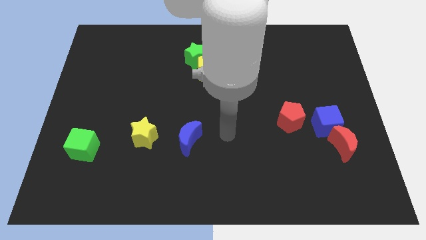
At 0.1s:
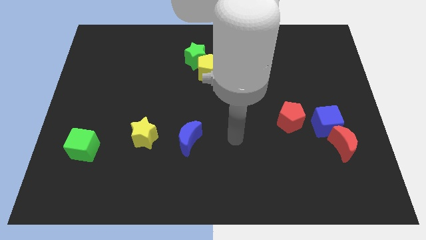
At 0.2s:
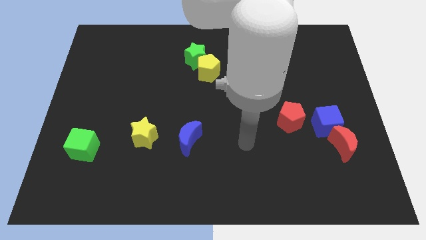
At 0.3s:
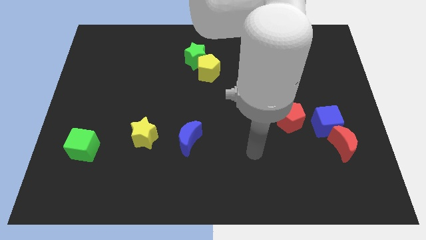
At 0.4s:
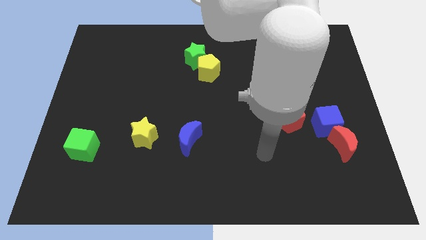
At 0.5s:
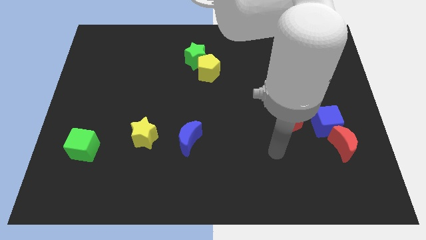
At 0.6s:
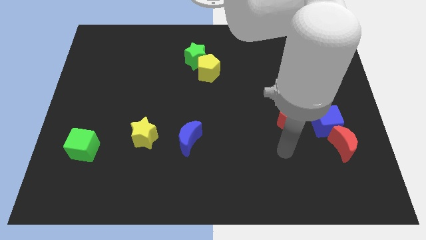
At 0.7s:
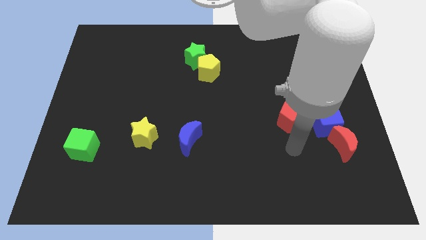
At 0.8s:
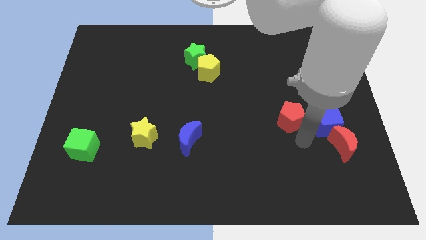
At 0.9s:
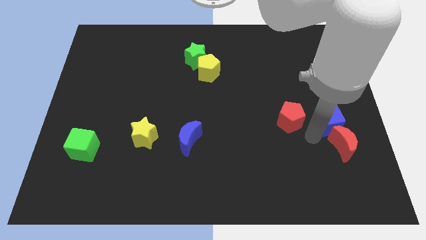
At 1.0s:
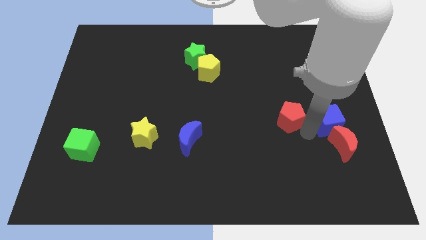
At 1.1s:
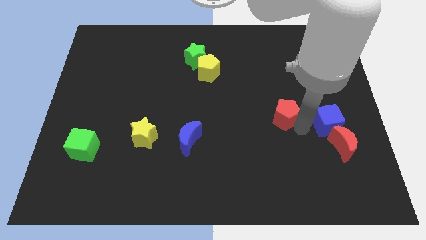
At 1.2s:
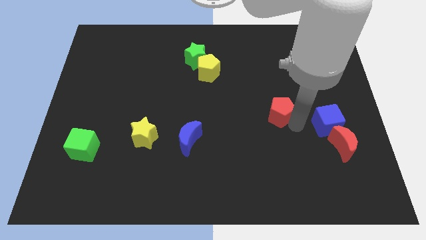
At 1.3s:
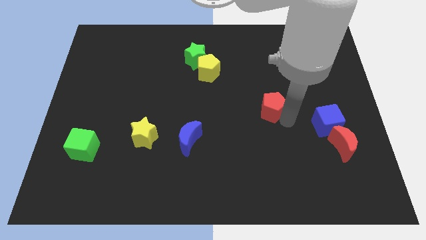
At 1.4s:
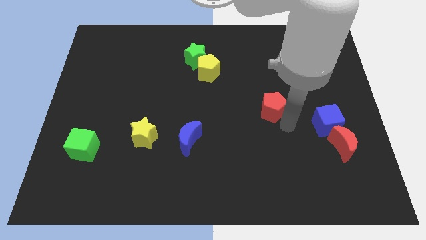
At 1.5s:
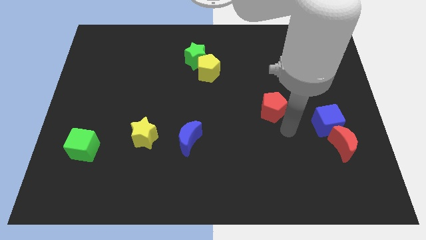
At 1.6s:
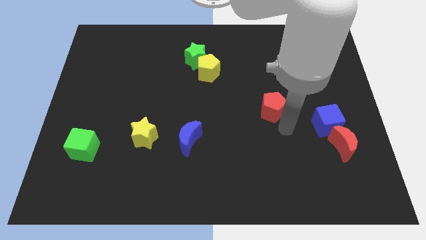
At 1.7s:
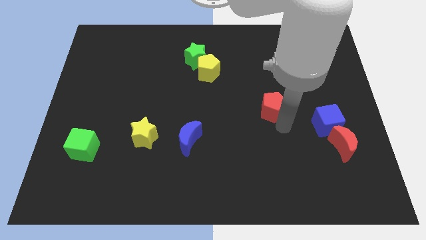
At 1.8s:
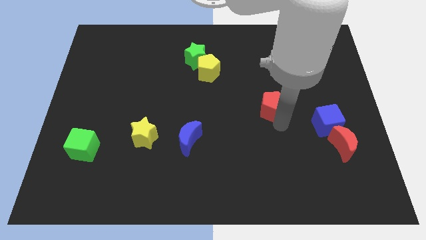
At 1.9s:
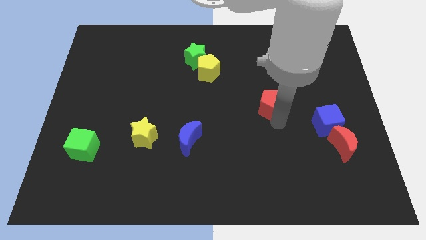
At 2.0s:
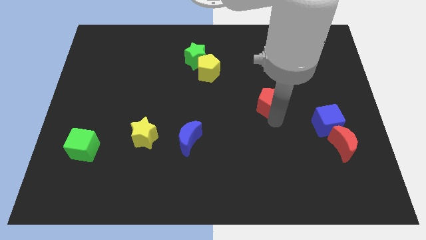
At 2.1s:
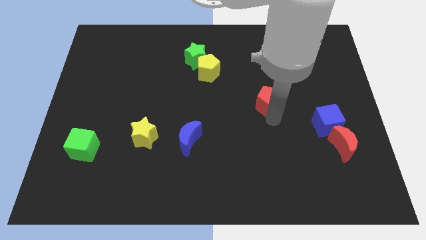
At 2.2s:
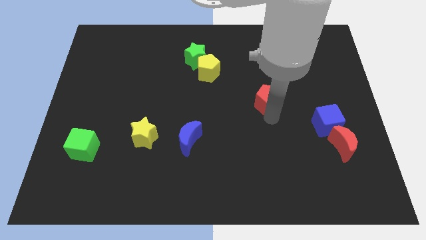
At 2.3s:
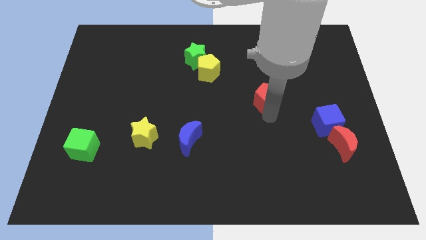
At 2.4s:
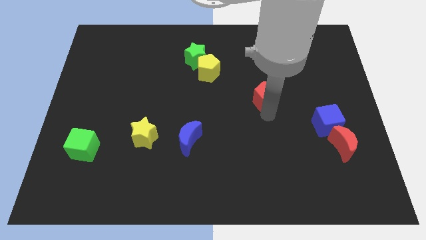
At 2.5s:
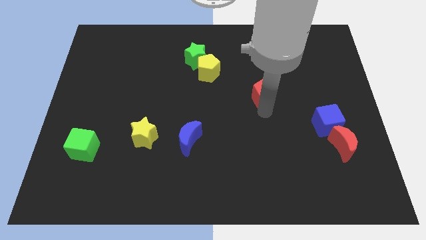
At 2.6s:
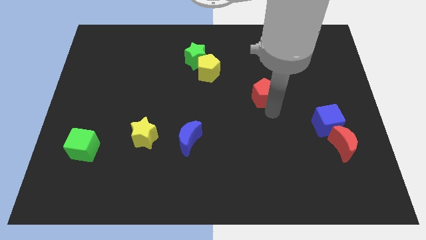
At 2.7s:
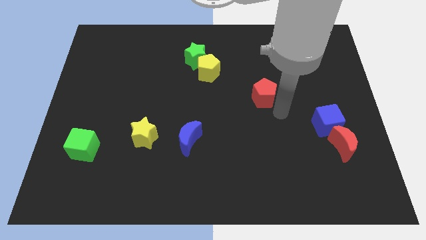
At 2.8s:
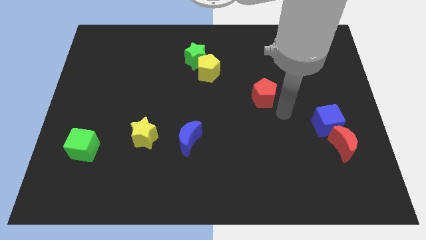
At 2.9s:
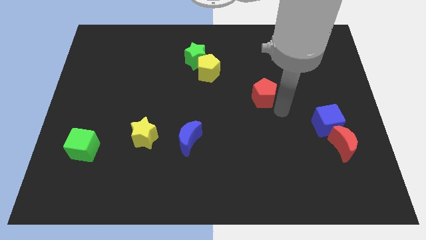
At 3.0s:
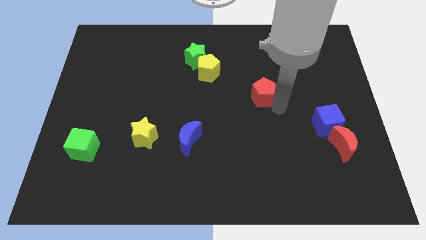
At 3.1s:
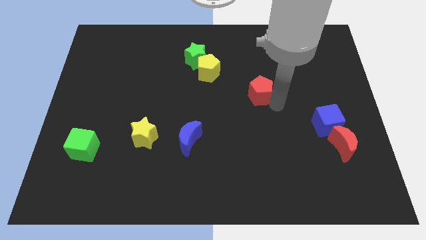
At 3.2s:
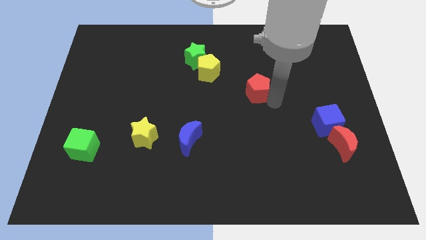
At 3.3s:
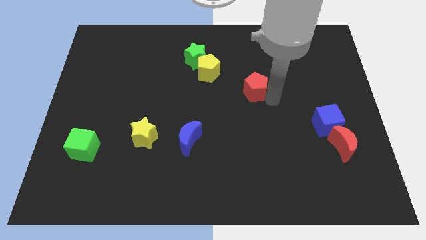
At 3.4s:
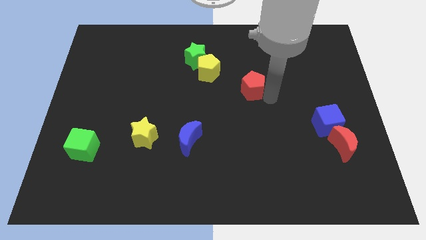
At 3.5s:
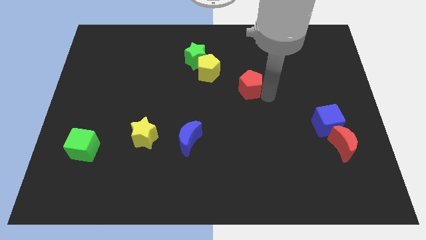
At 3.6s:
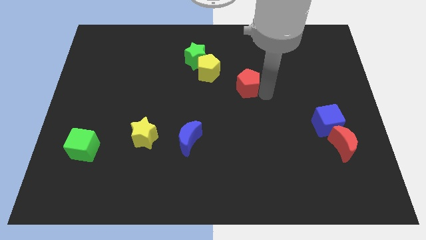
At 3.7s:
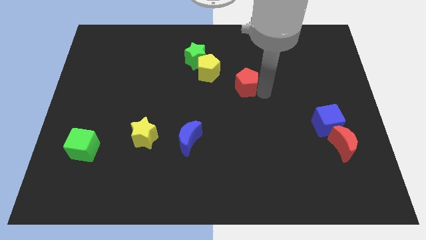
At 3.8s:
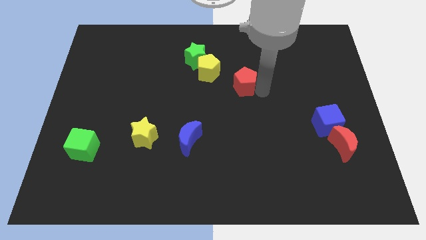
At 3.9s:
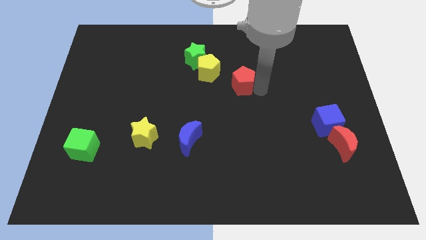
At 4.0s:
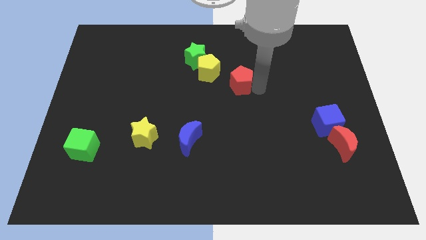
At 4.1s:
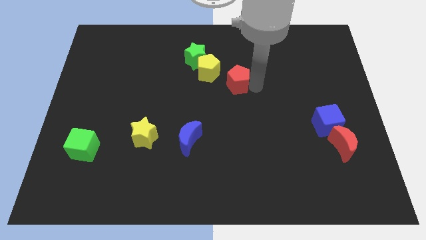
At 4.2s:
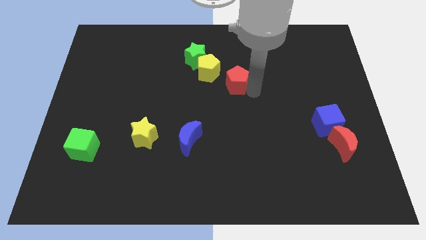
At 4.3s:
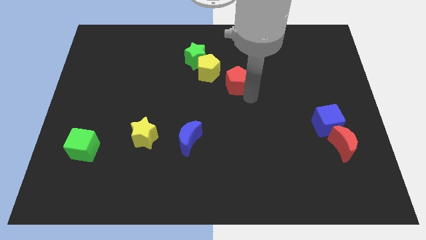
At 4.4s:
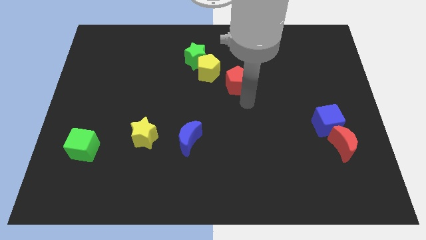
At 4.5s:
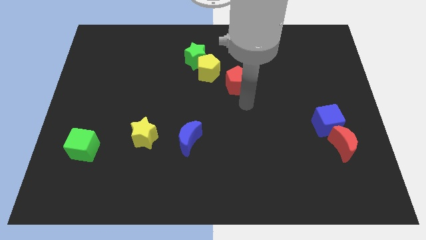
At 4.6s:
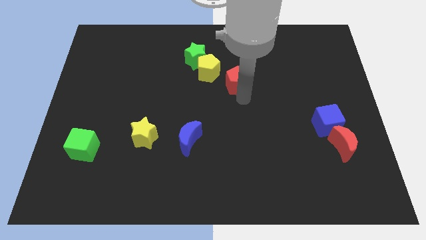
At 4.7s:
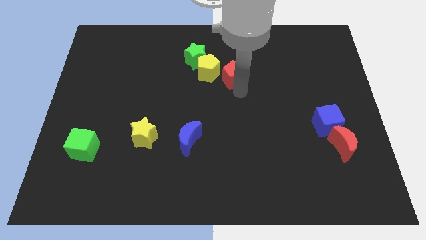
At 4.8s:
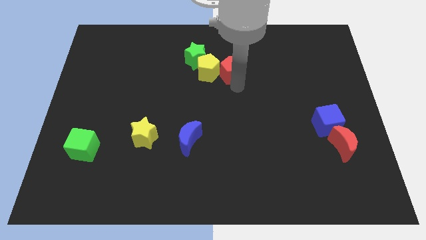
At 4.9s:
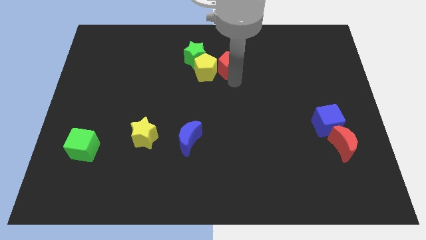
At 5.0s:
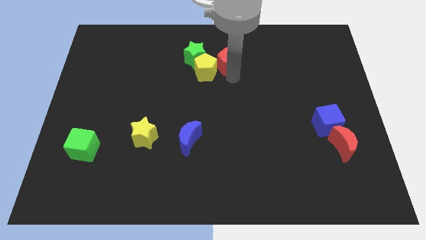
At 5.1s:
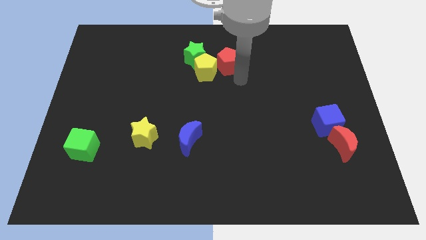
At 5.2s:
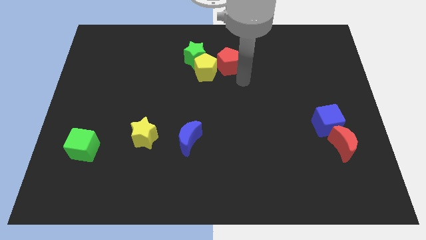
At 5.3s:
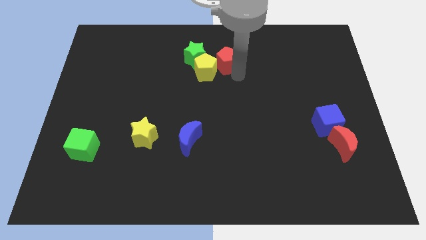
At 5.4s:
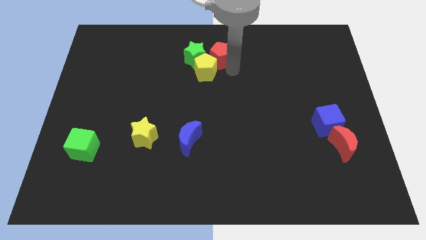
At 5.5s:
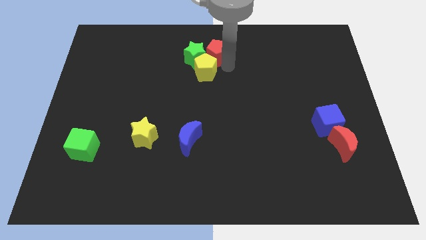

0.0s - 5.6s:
push the red pentagon to the towards your base
